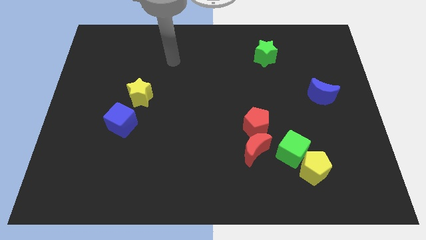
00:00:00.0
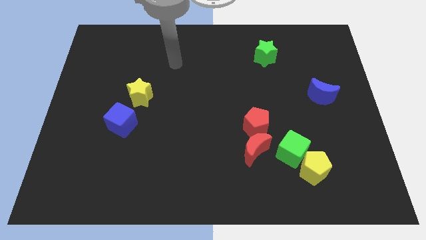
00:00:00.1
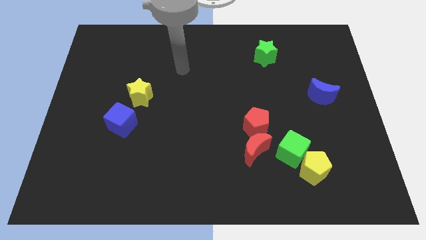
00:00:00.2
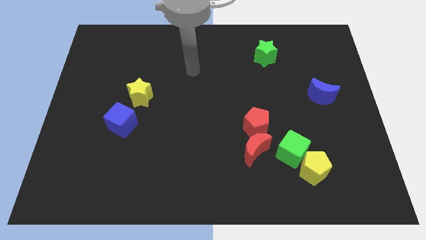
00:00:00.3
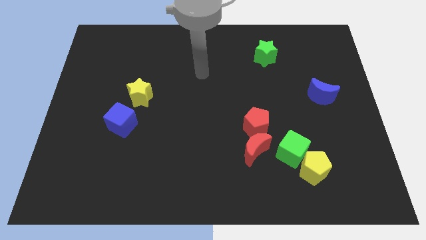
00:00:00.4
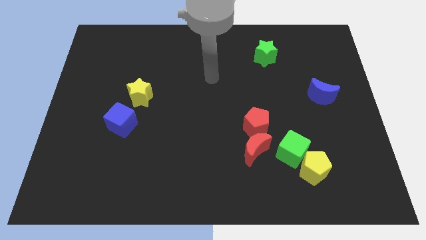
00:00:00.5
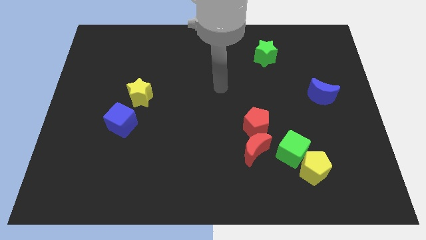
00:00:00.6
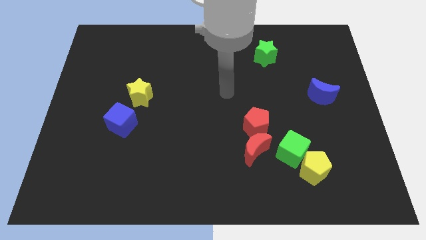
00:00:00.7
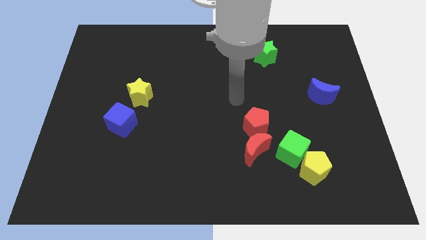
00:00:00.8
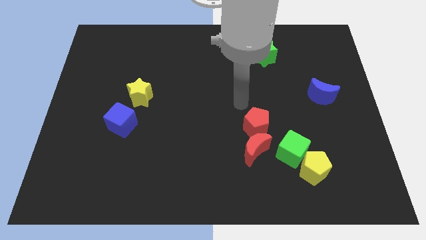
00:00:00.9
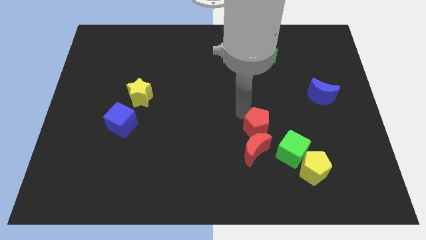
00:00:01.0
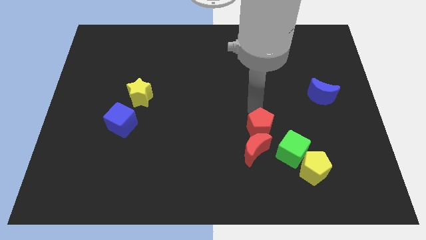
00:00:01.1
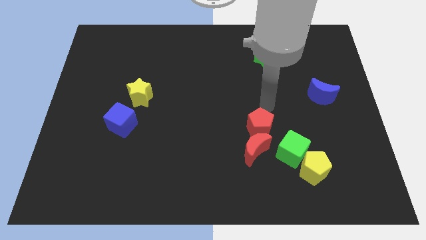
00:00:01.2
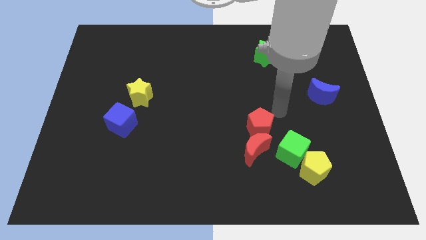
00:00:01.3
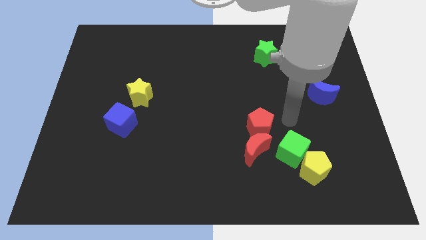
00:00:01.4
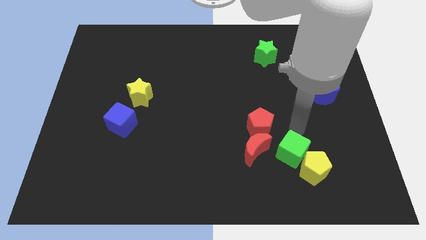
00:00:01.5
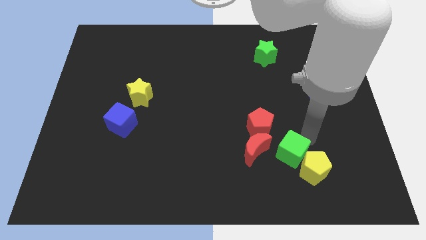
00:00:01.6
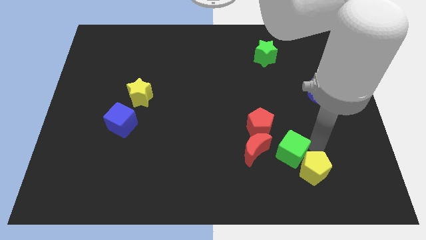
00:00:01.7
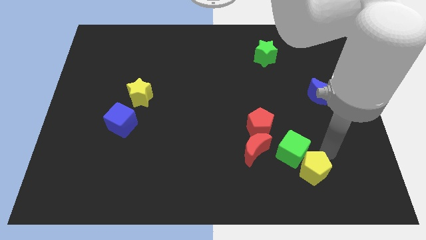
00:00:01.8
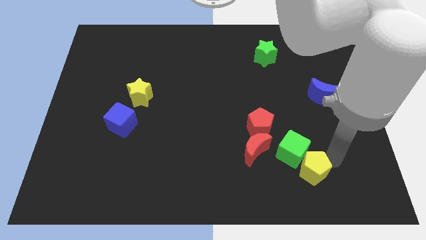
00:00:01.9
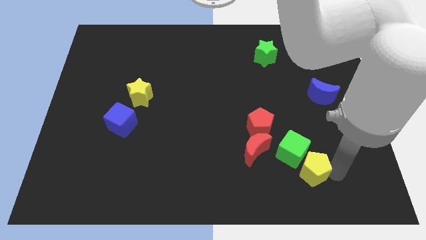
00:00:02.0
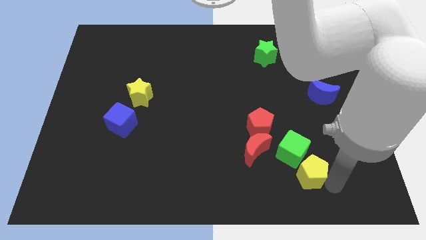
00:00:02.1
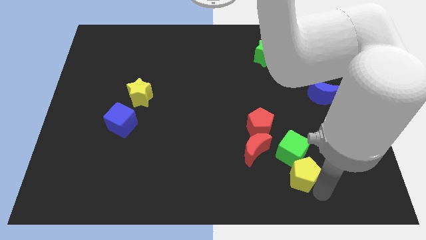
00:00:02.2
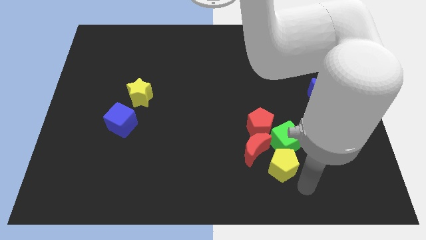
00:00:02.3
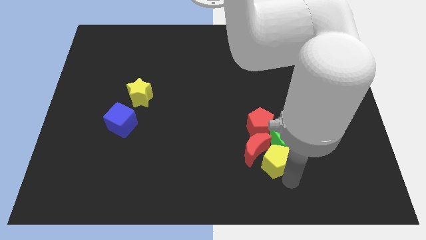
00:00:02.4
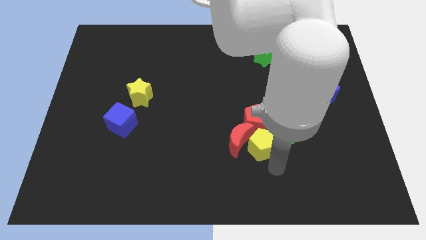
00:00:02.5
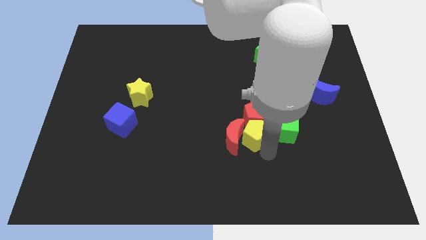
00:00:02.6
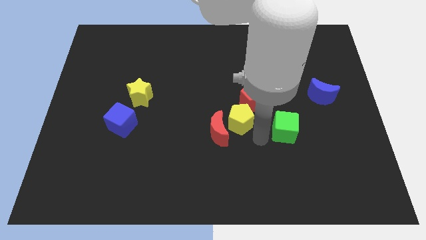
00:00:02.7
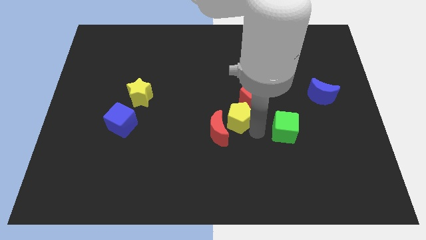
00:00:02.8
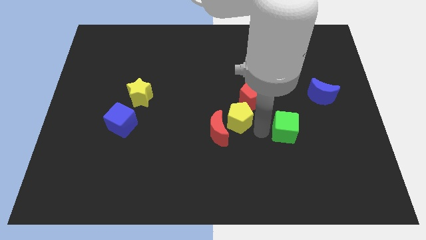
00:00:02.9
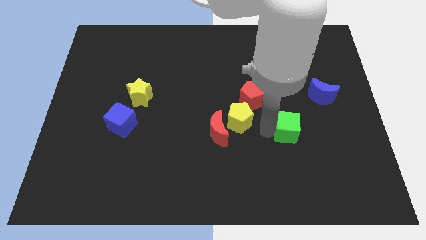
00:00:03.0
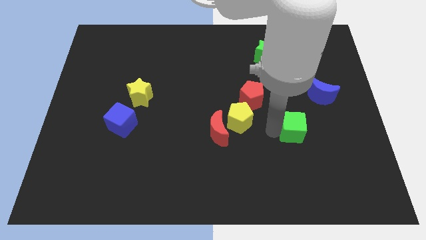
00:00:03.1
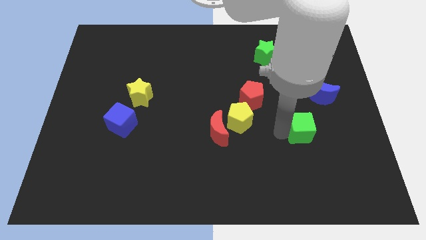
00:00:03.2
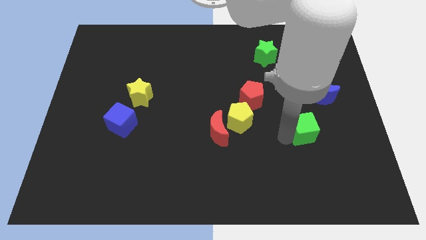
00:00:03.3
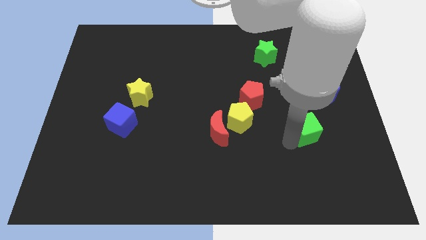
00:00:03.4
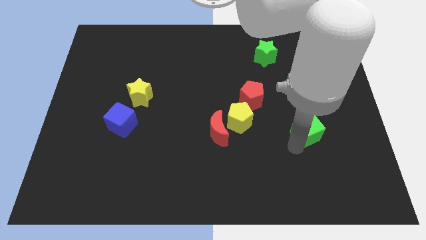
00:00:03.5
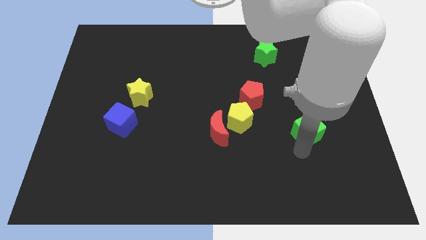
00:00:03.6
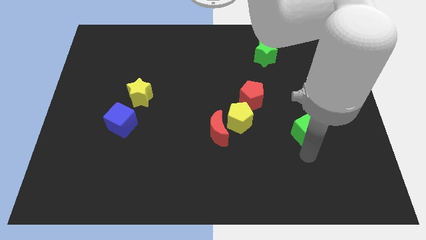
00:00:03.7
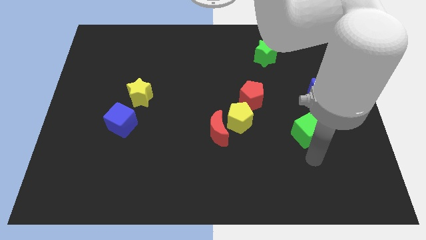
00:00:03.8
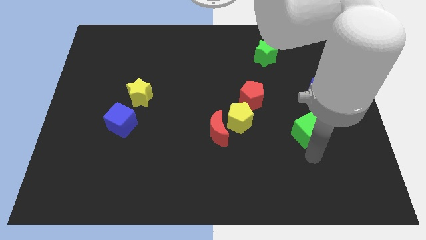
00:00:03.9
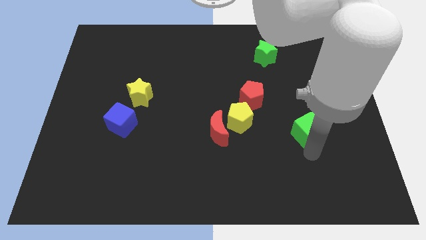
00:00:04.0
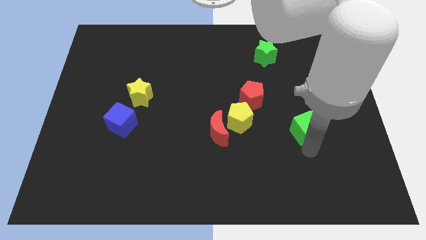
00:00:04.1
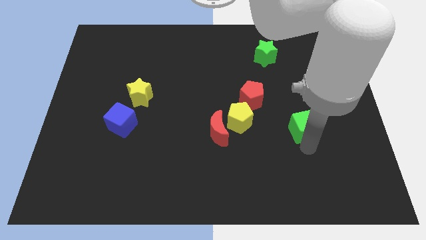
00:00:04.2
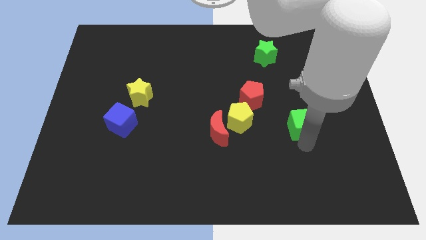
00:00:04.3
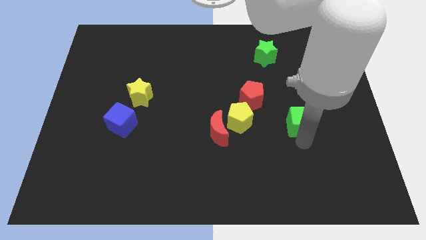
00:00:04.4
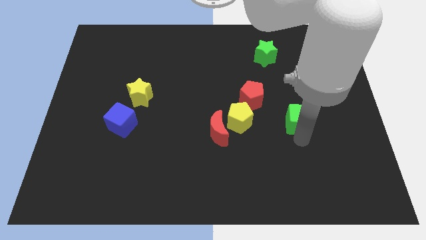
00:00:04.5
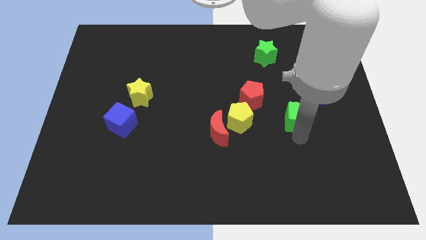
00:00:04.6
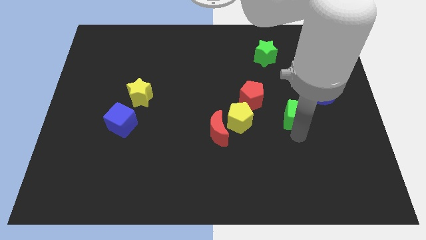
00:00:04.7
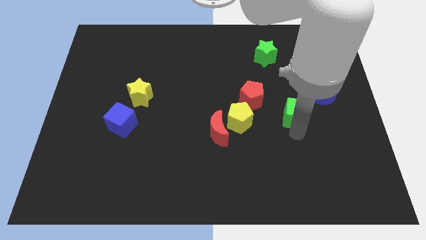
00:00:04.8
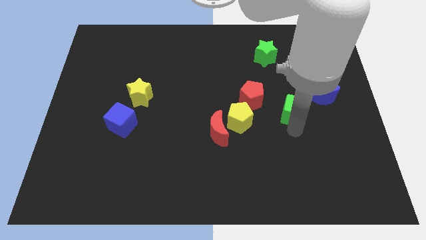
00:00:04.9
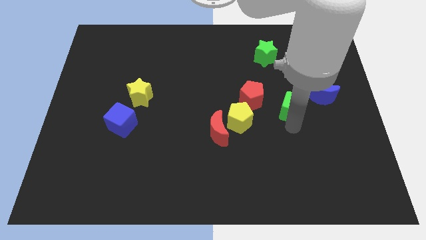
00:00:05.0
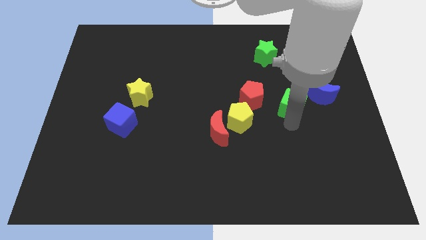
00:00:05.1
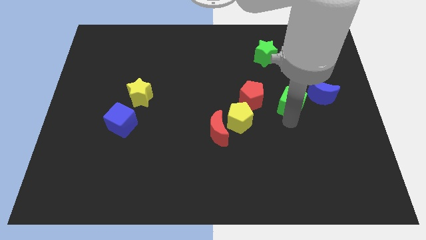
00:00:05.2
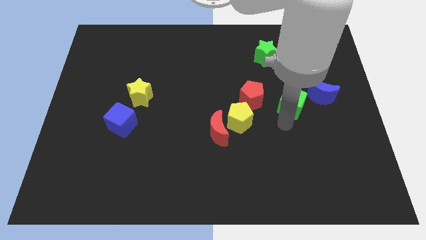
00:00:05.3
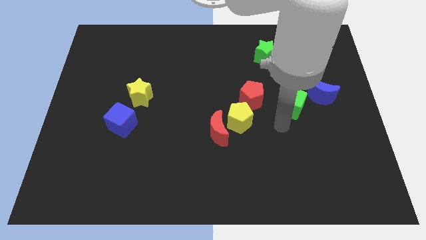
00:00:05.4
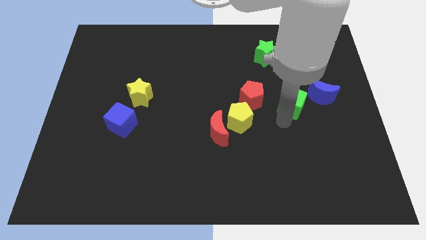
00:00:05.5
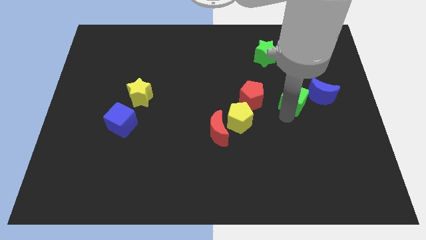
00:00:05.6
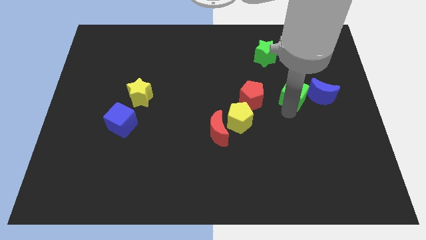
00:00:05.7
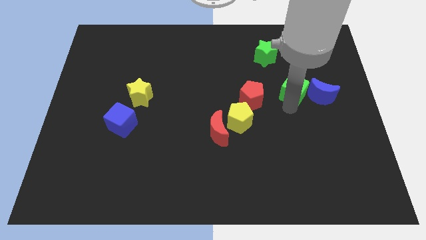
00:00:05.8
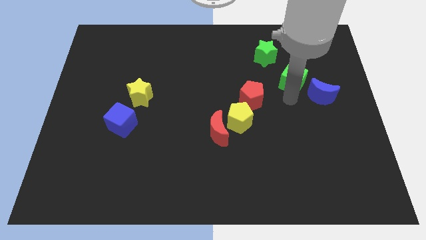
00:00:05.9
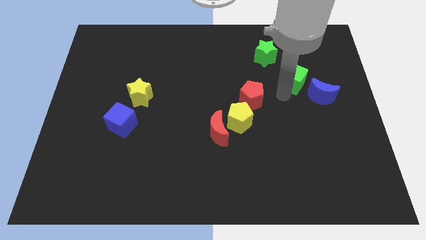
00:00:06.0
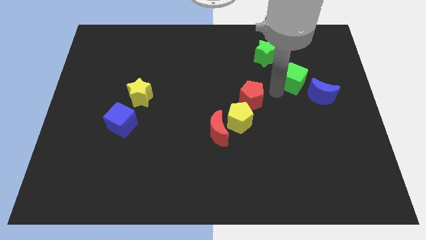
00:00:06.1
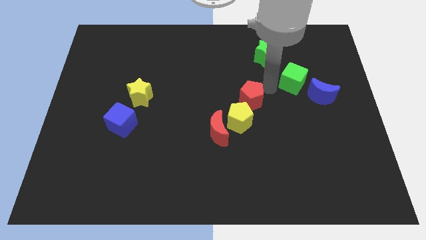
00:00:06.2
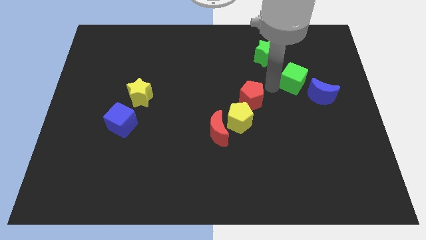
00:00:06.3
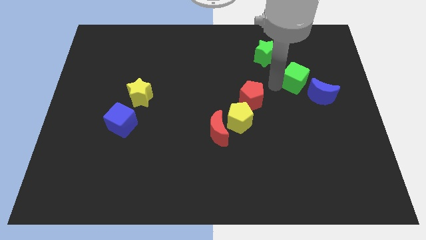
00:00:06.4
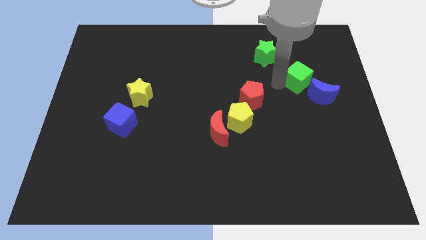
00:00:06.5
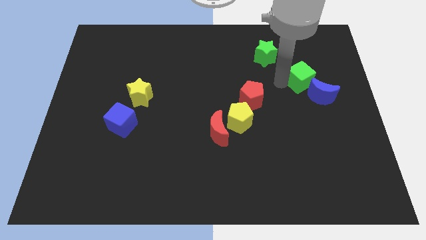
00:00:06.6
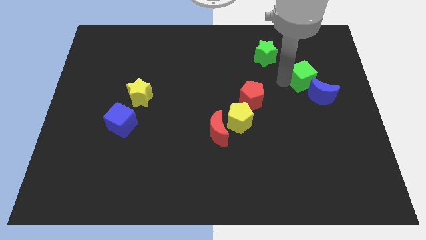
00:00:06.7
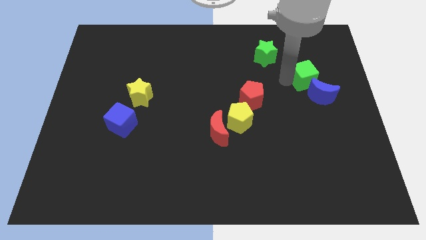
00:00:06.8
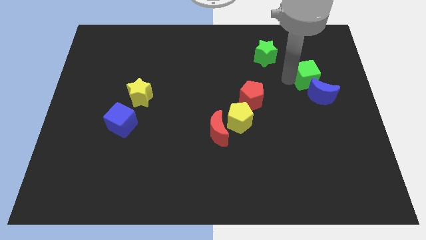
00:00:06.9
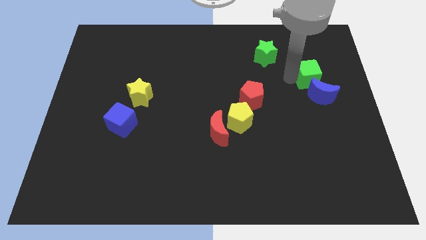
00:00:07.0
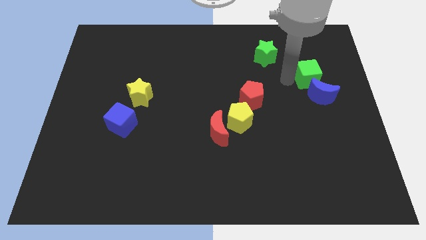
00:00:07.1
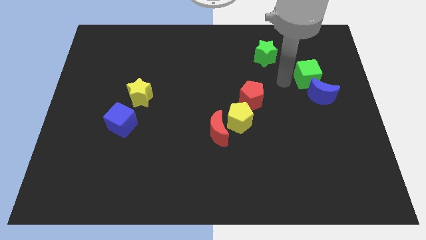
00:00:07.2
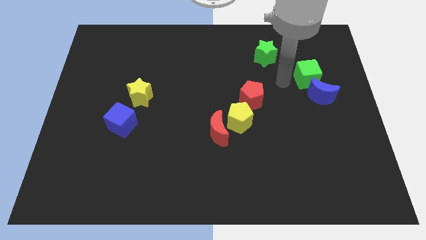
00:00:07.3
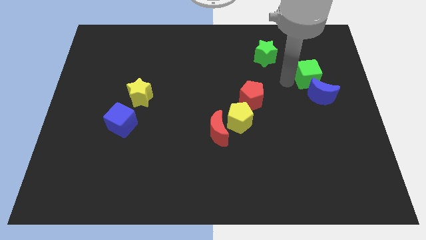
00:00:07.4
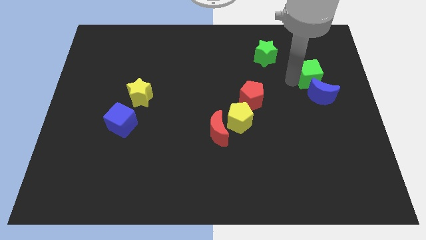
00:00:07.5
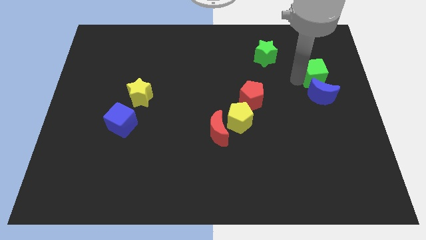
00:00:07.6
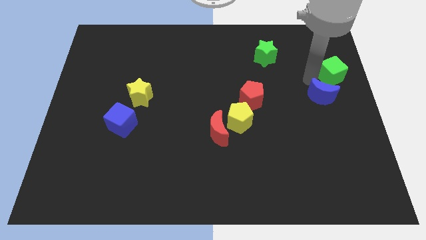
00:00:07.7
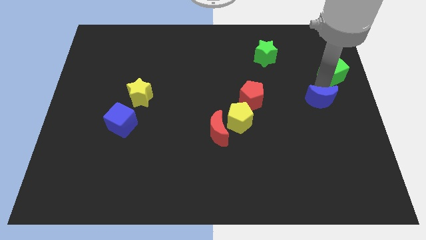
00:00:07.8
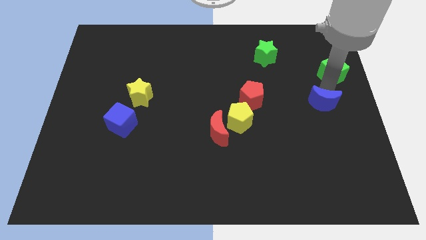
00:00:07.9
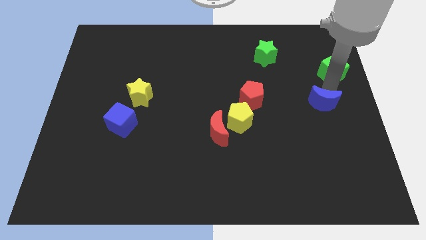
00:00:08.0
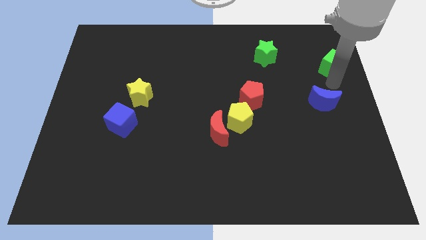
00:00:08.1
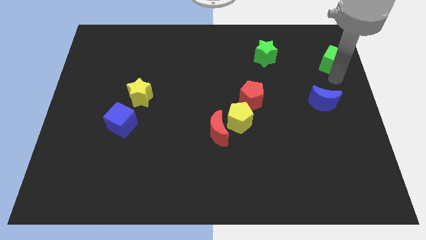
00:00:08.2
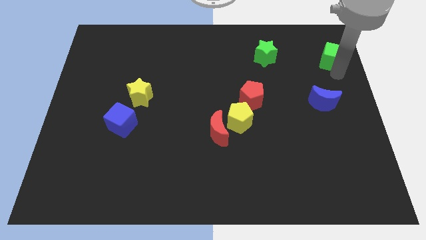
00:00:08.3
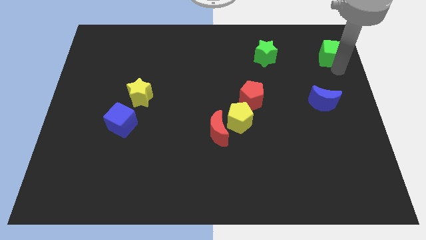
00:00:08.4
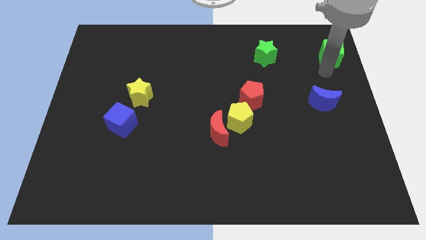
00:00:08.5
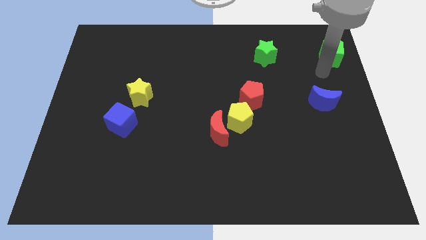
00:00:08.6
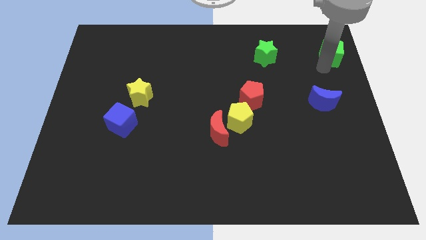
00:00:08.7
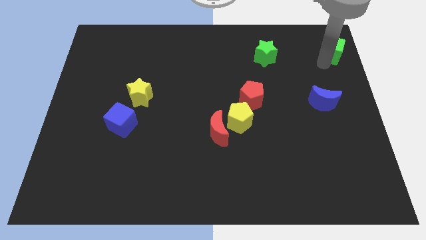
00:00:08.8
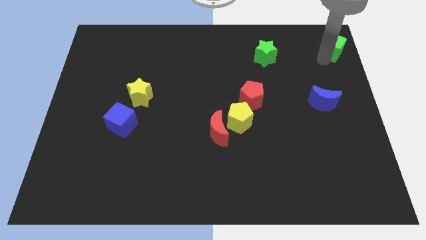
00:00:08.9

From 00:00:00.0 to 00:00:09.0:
move the green cube to the top right corner
